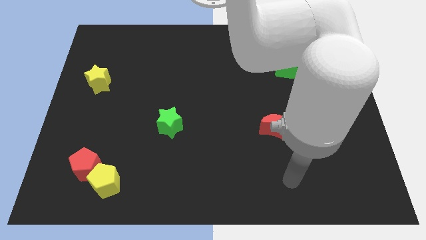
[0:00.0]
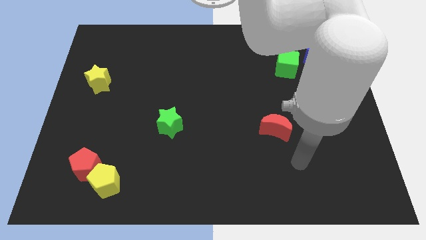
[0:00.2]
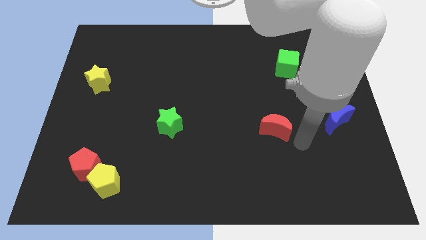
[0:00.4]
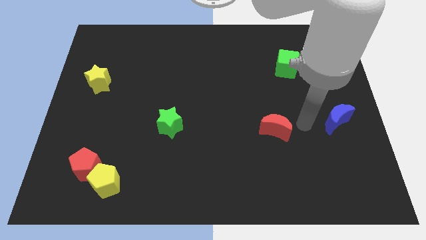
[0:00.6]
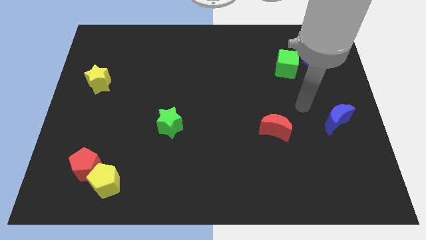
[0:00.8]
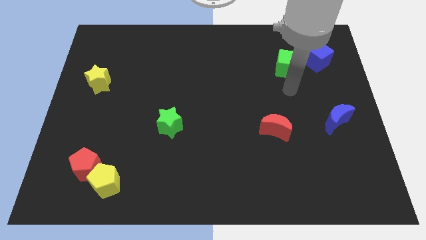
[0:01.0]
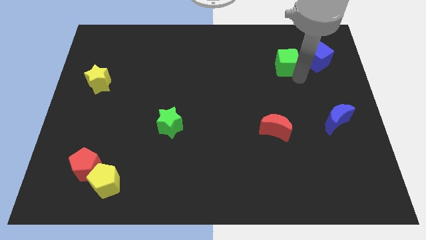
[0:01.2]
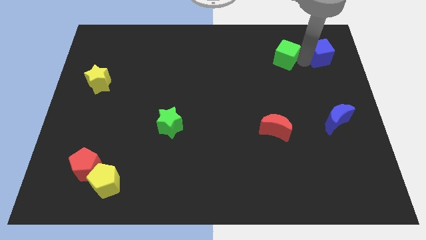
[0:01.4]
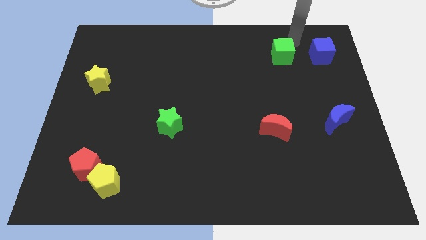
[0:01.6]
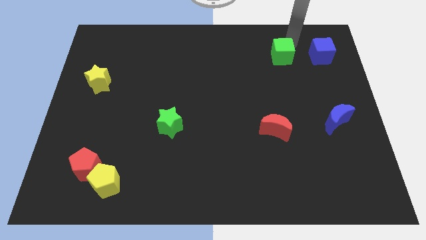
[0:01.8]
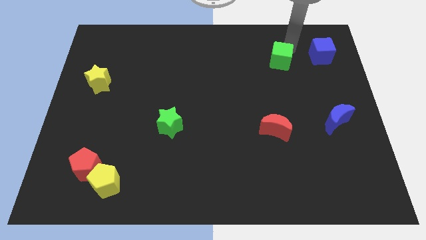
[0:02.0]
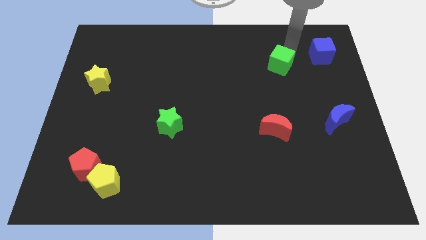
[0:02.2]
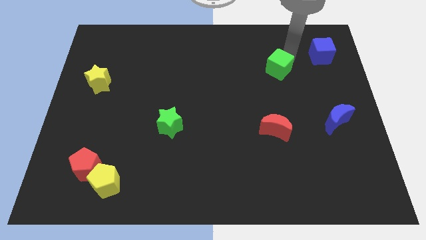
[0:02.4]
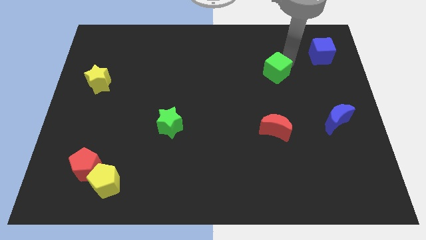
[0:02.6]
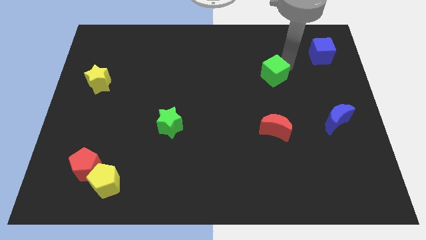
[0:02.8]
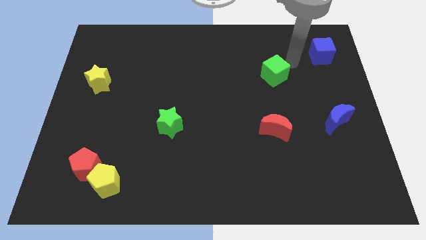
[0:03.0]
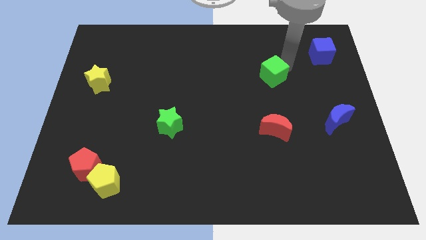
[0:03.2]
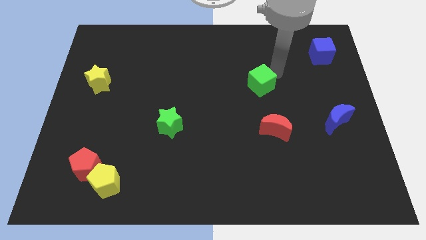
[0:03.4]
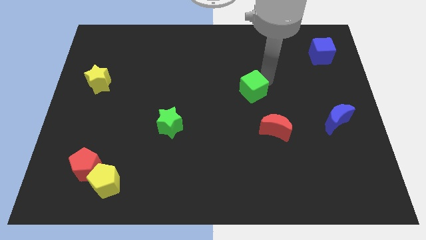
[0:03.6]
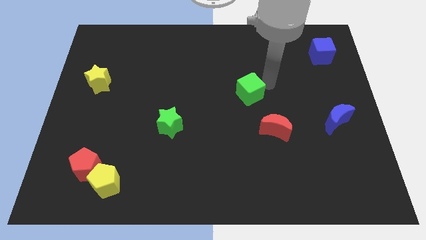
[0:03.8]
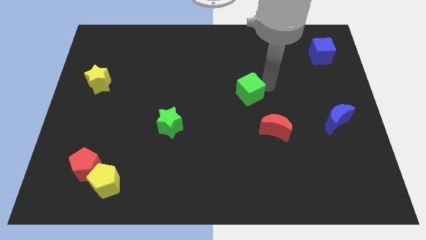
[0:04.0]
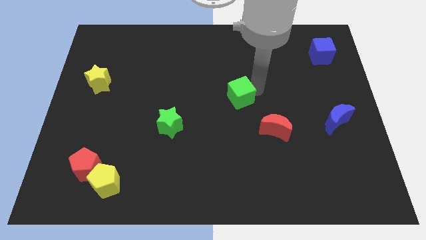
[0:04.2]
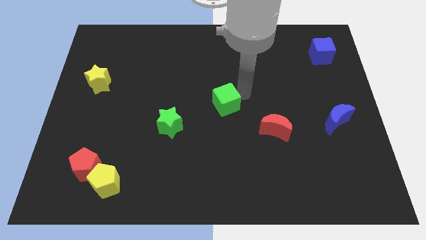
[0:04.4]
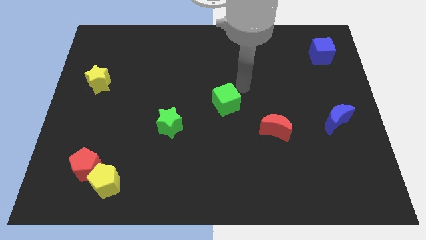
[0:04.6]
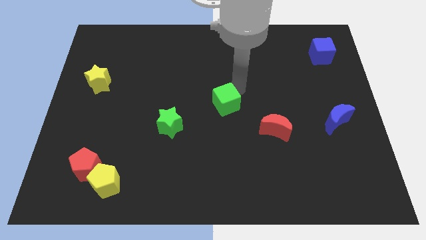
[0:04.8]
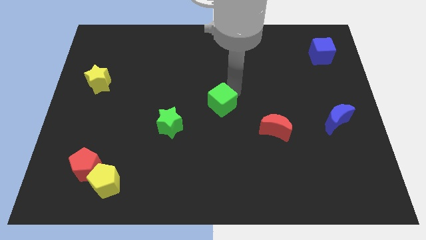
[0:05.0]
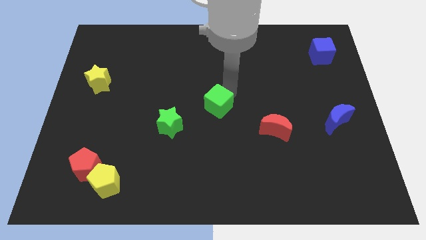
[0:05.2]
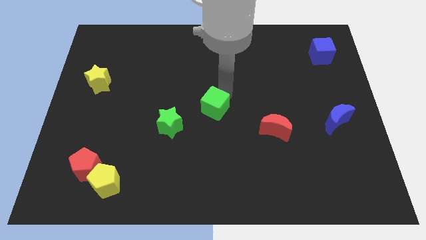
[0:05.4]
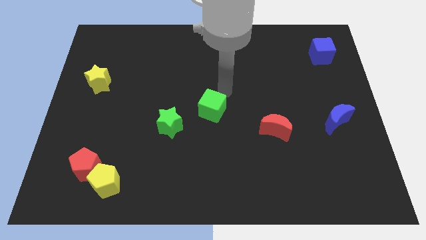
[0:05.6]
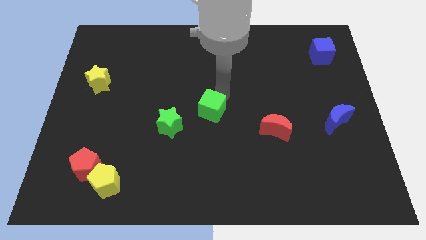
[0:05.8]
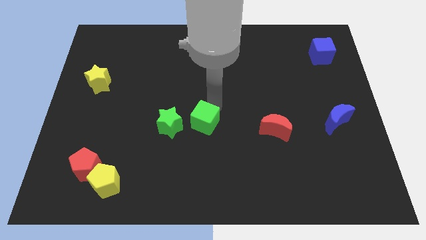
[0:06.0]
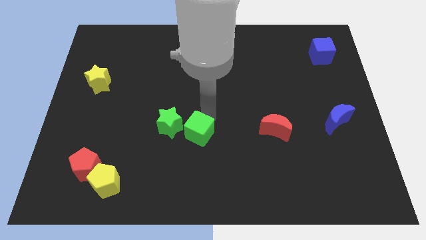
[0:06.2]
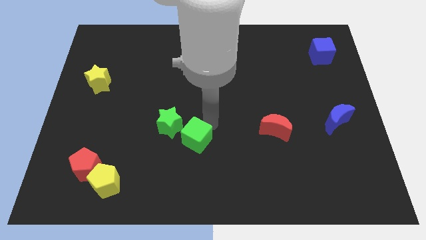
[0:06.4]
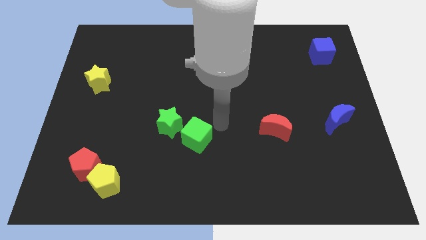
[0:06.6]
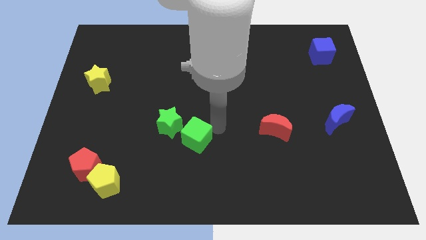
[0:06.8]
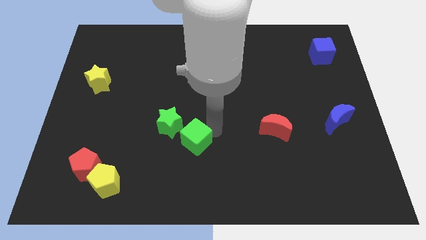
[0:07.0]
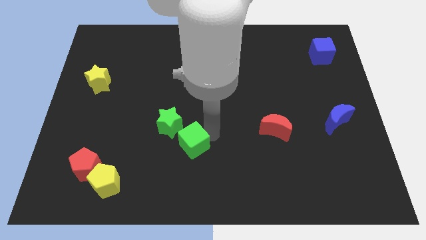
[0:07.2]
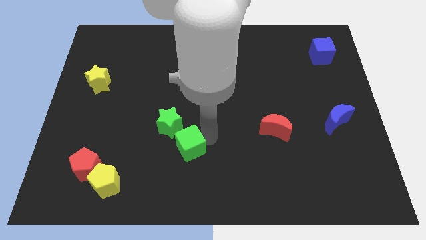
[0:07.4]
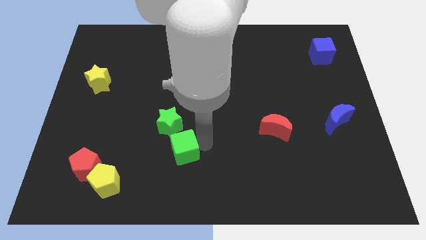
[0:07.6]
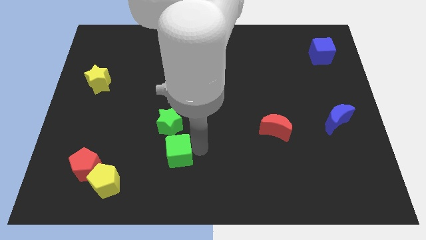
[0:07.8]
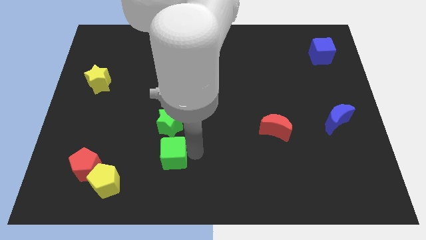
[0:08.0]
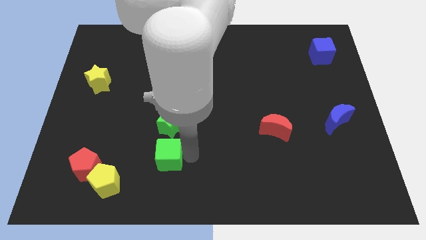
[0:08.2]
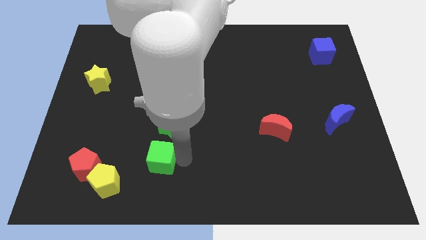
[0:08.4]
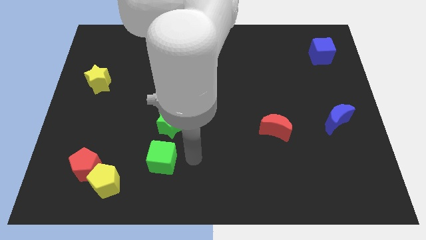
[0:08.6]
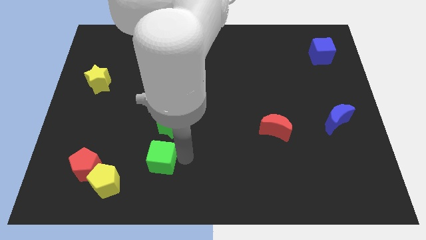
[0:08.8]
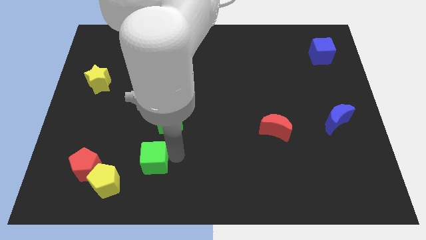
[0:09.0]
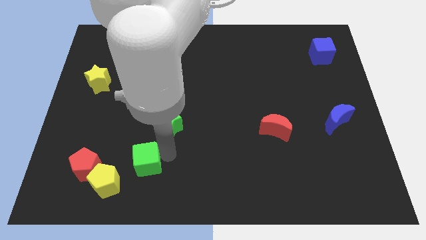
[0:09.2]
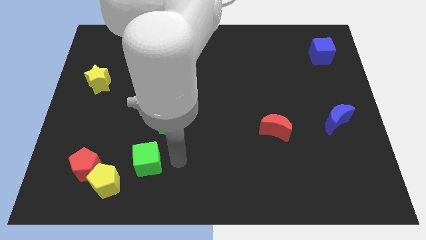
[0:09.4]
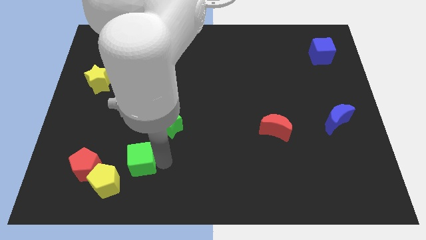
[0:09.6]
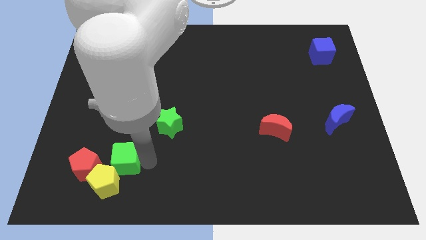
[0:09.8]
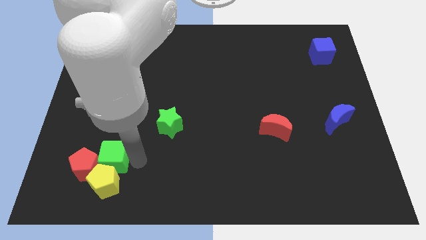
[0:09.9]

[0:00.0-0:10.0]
put the green cube towards the red pentagon

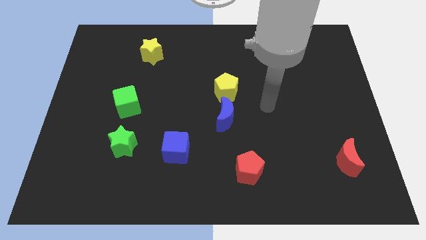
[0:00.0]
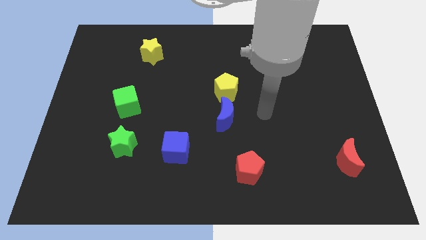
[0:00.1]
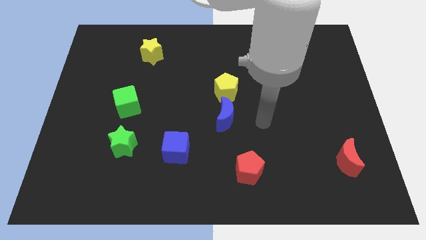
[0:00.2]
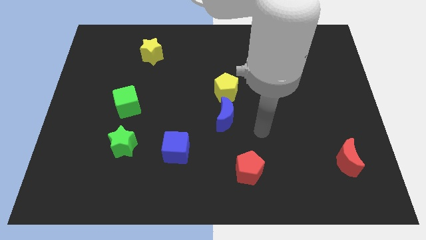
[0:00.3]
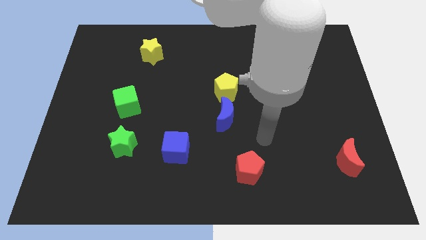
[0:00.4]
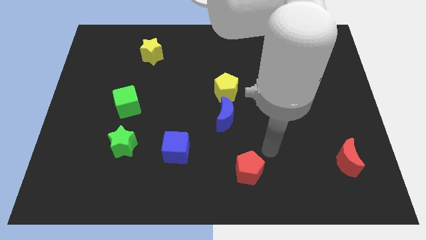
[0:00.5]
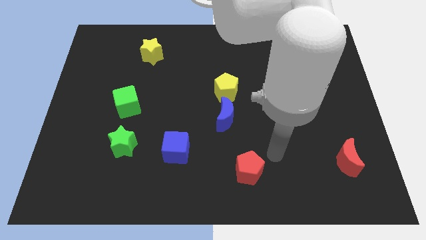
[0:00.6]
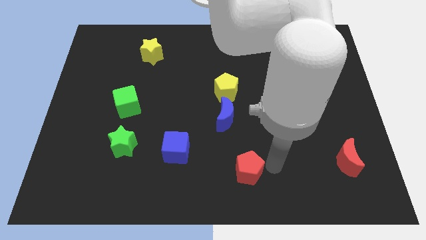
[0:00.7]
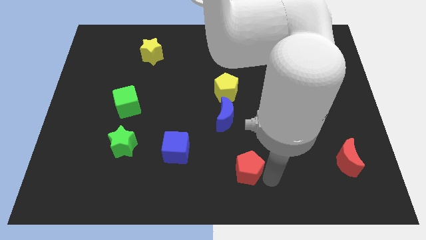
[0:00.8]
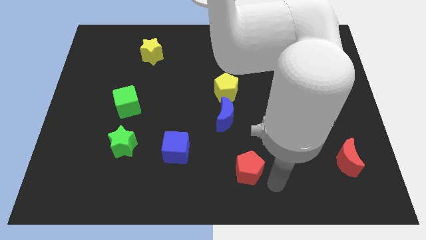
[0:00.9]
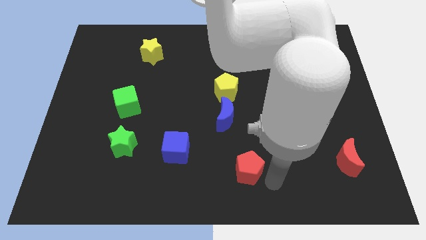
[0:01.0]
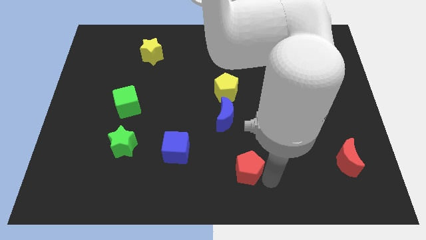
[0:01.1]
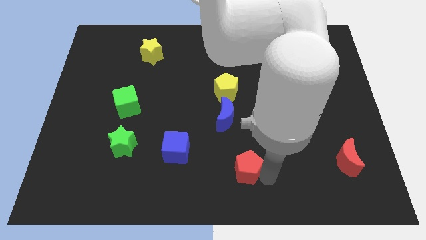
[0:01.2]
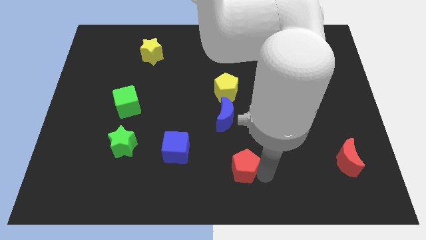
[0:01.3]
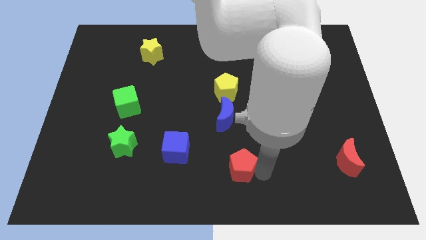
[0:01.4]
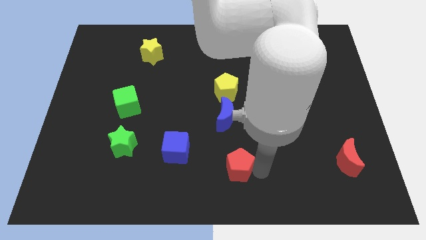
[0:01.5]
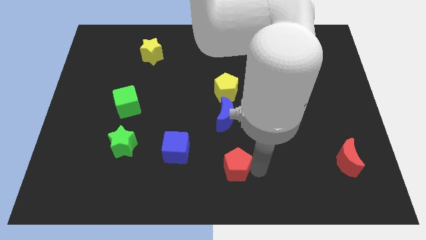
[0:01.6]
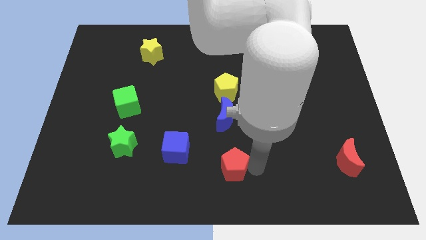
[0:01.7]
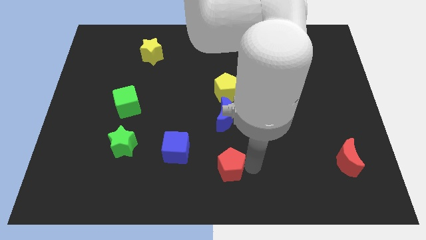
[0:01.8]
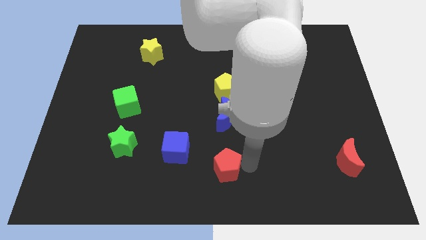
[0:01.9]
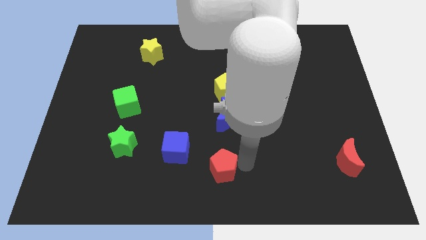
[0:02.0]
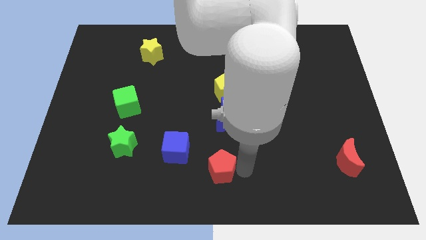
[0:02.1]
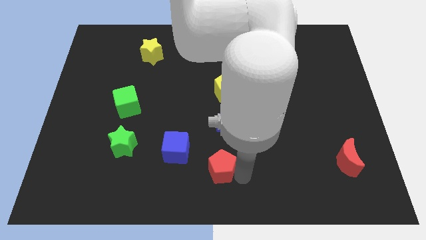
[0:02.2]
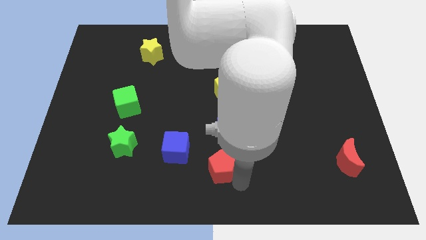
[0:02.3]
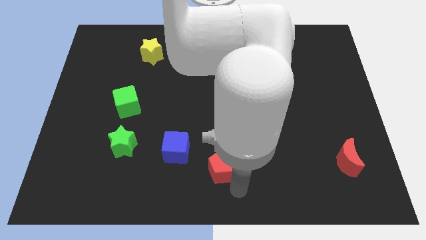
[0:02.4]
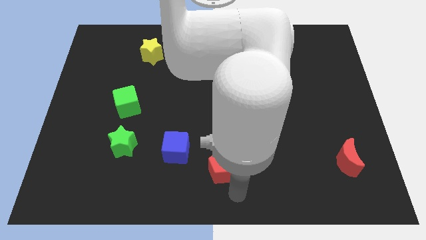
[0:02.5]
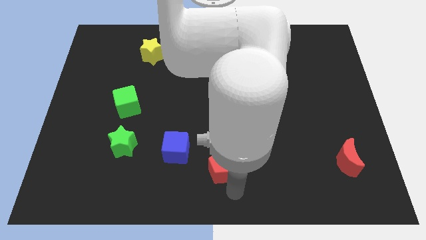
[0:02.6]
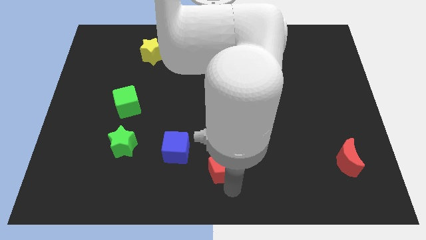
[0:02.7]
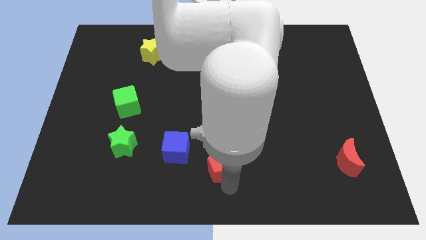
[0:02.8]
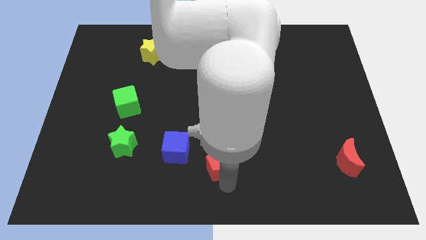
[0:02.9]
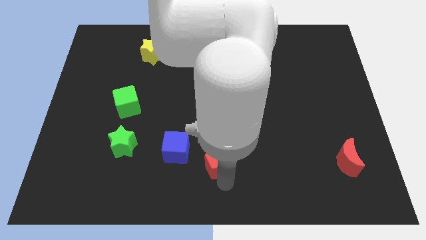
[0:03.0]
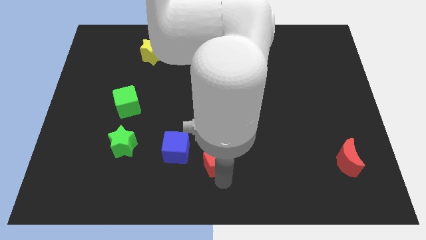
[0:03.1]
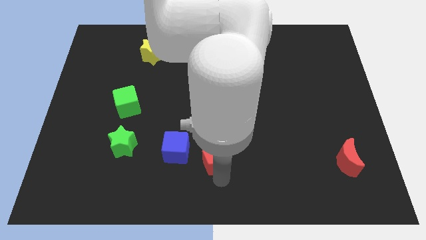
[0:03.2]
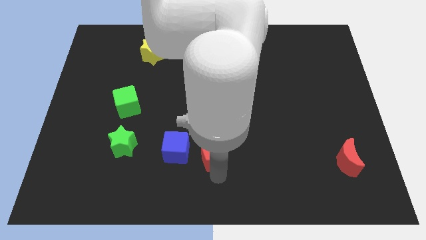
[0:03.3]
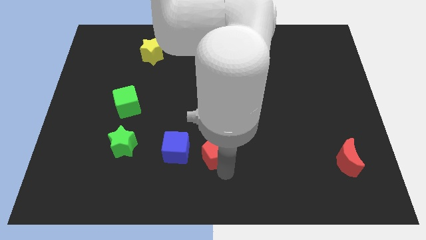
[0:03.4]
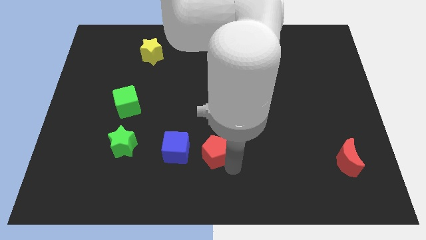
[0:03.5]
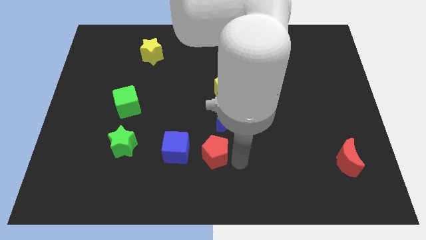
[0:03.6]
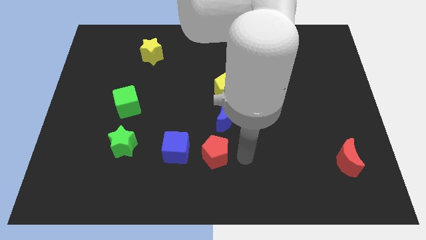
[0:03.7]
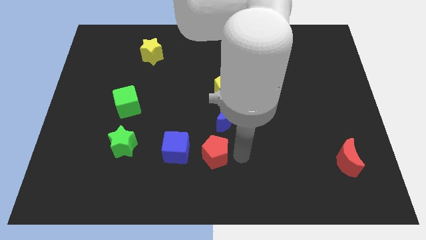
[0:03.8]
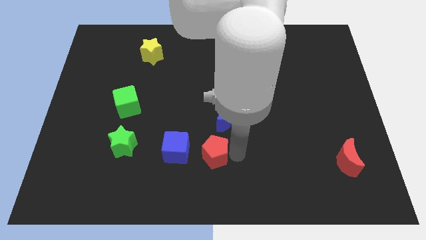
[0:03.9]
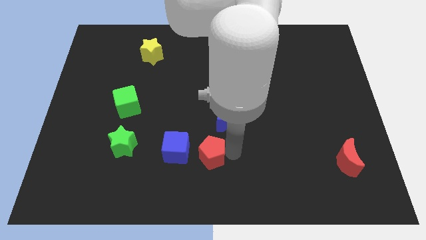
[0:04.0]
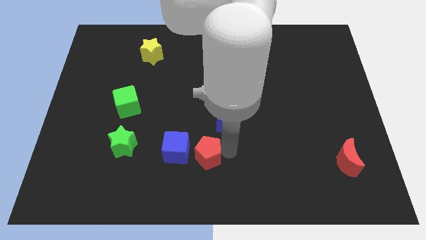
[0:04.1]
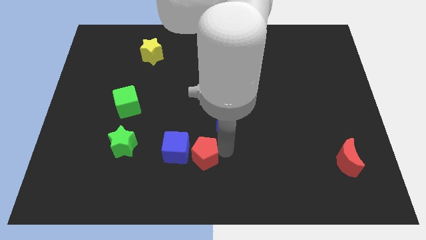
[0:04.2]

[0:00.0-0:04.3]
put the red pentagon close to the blue cube
